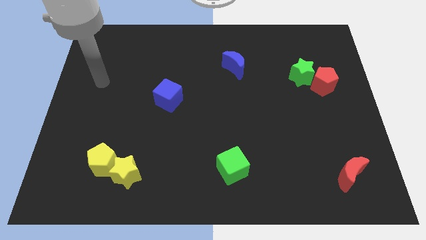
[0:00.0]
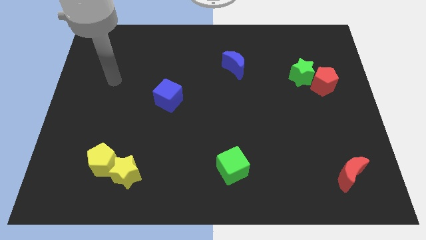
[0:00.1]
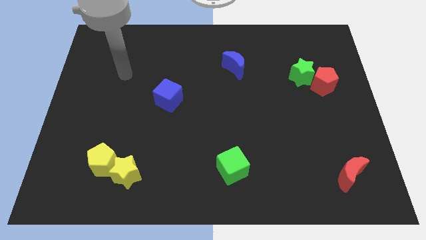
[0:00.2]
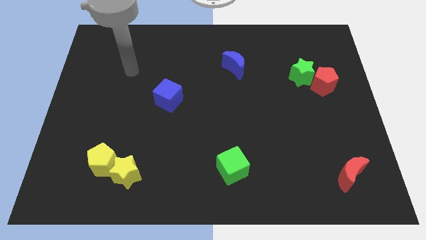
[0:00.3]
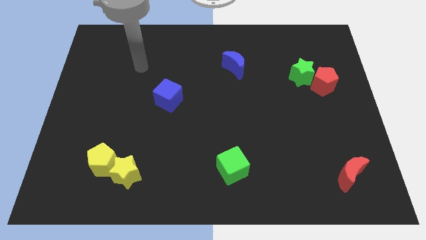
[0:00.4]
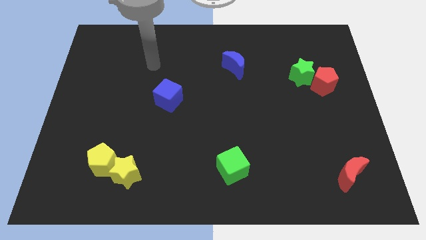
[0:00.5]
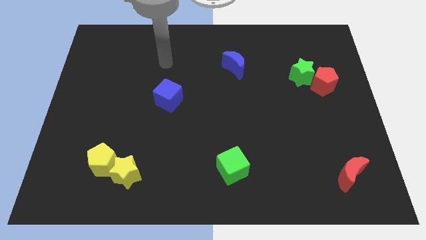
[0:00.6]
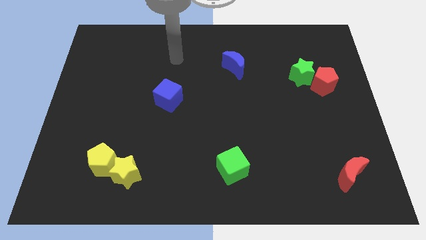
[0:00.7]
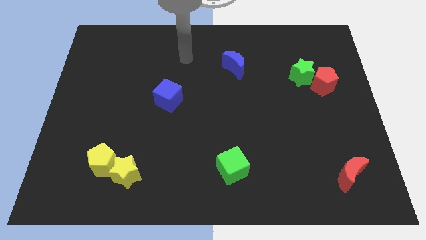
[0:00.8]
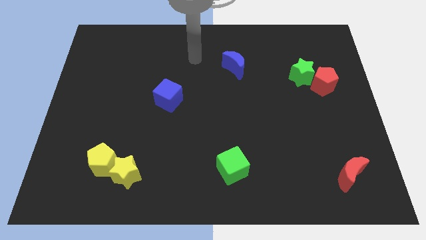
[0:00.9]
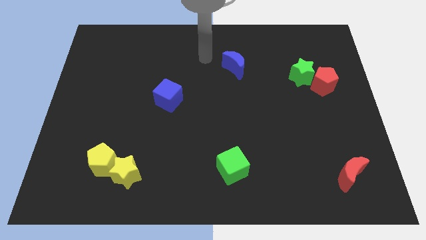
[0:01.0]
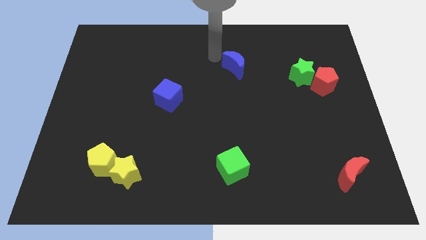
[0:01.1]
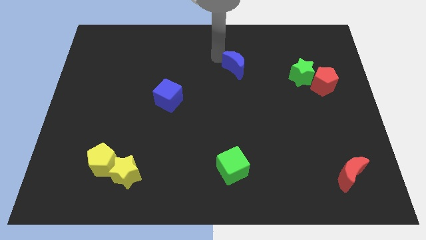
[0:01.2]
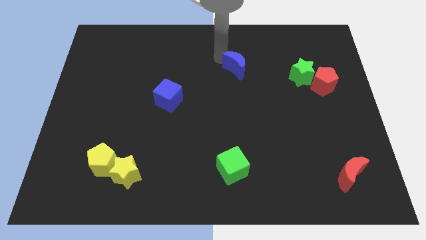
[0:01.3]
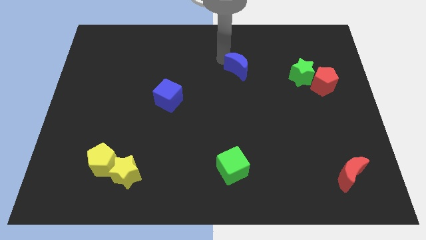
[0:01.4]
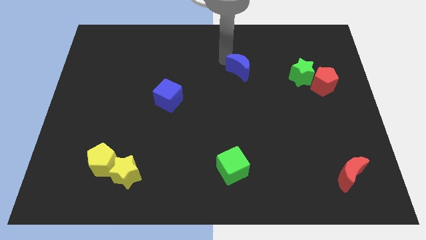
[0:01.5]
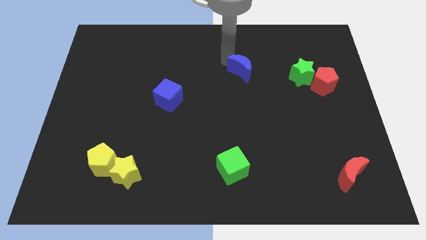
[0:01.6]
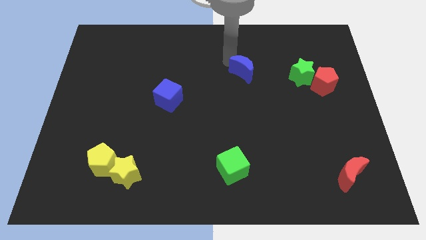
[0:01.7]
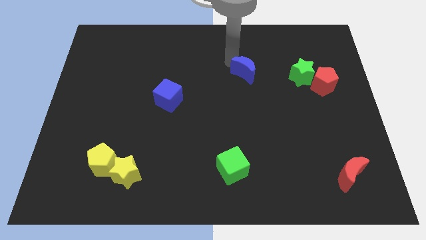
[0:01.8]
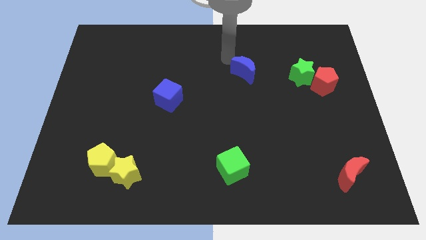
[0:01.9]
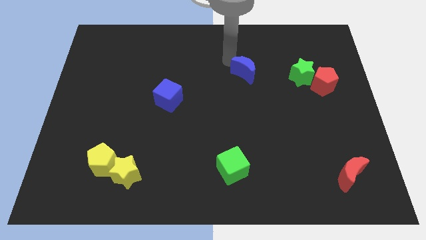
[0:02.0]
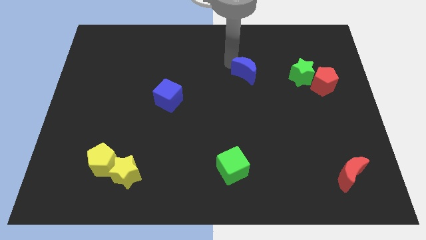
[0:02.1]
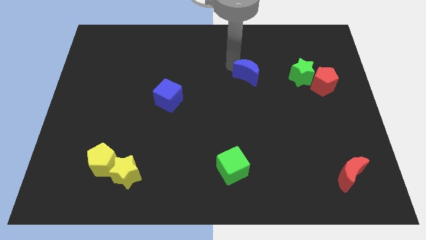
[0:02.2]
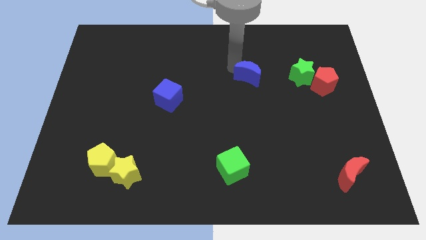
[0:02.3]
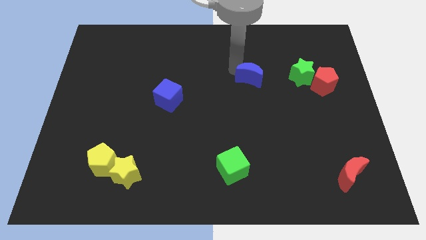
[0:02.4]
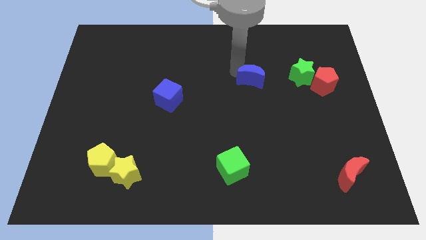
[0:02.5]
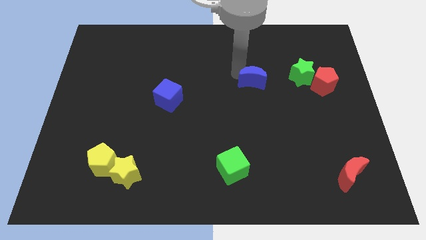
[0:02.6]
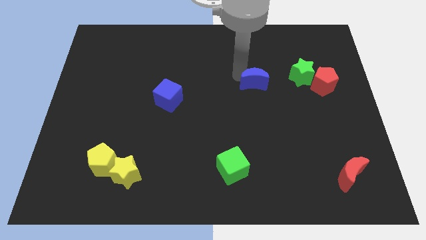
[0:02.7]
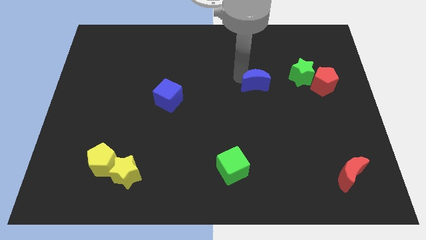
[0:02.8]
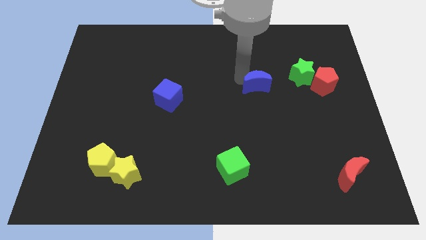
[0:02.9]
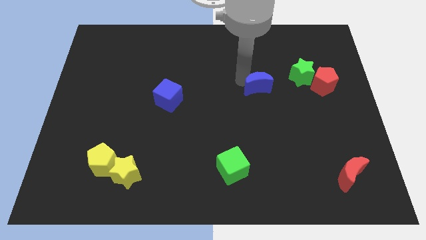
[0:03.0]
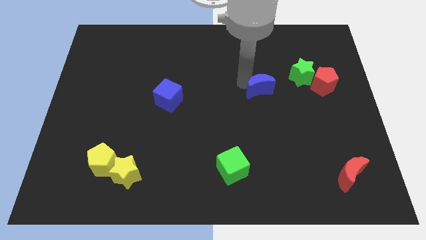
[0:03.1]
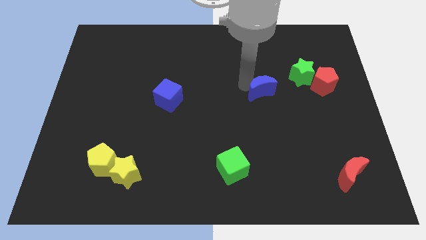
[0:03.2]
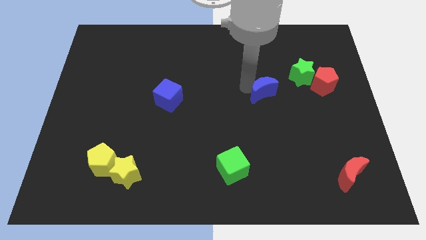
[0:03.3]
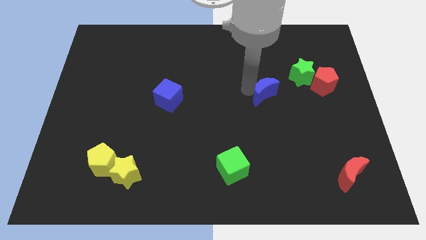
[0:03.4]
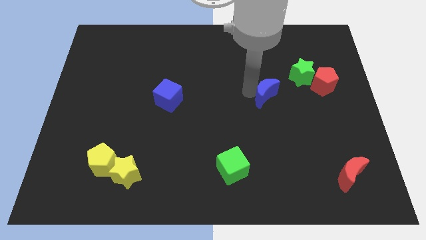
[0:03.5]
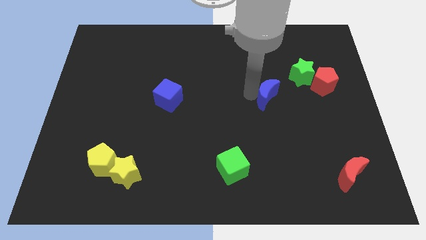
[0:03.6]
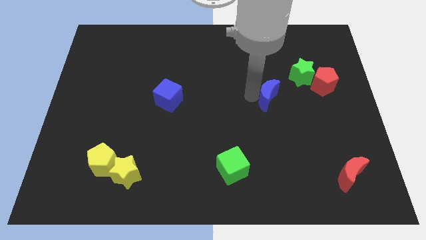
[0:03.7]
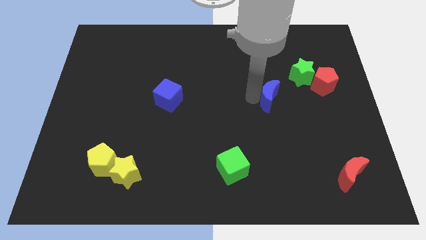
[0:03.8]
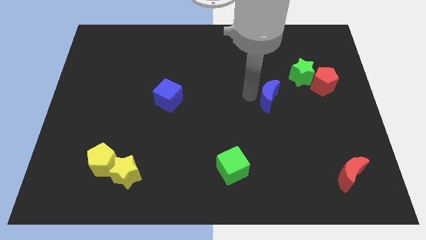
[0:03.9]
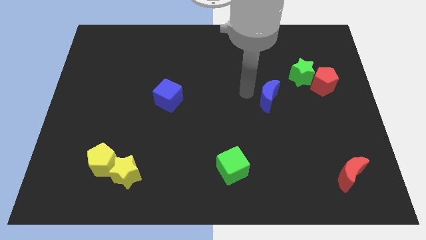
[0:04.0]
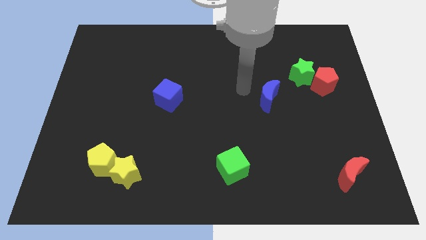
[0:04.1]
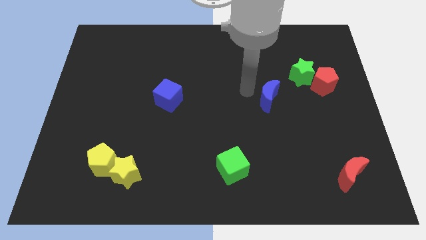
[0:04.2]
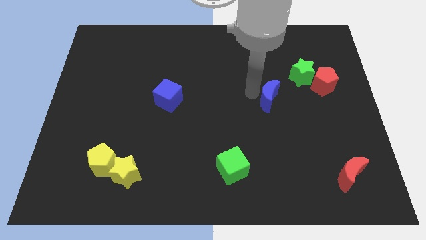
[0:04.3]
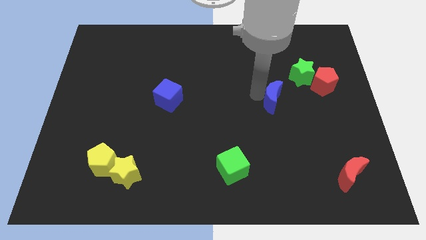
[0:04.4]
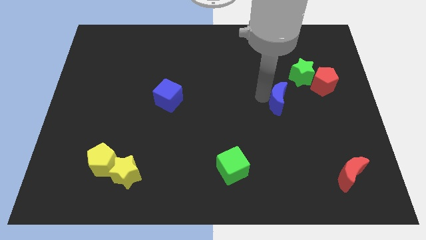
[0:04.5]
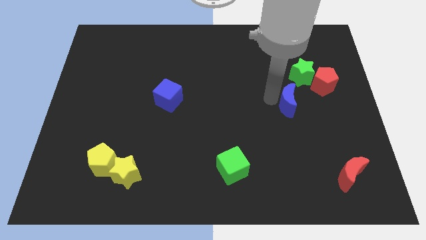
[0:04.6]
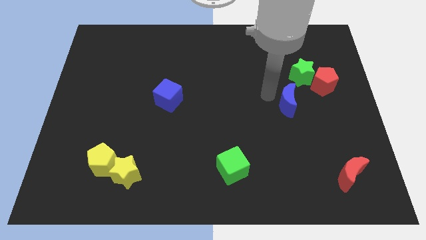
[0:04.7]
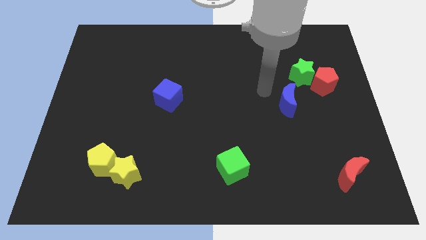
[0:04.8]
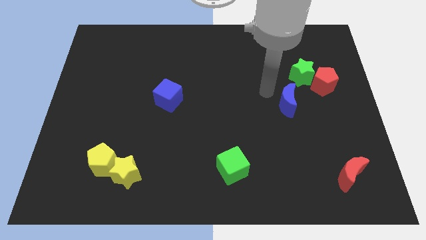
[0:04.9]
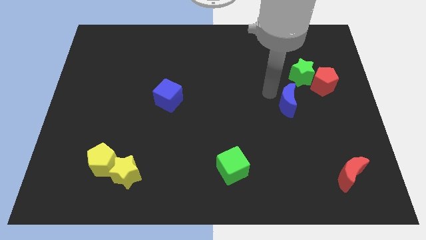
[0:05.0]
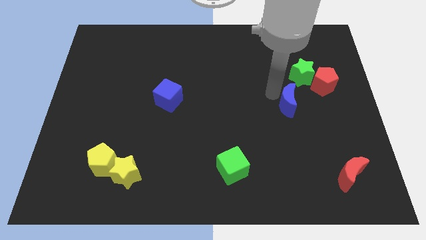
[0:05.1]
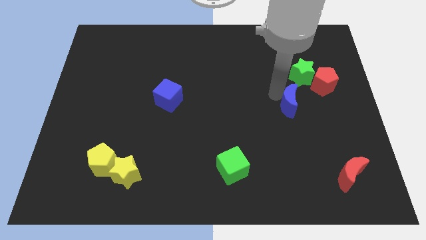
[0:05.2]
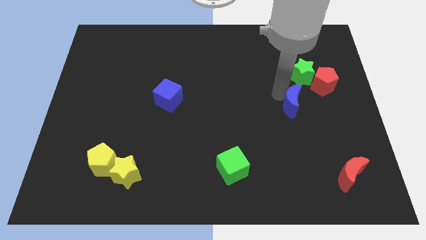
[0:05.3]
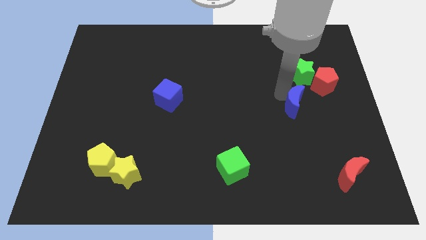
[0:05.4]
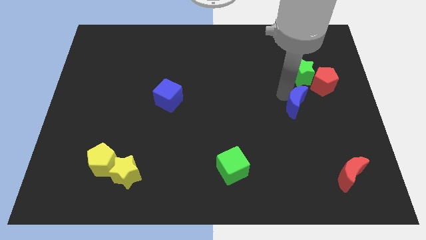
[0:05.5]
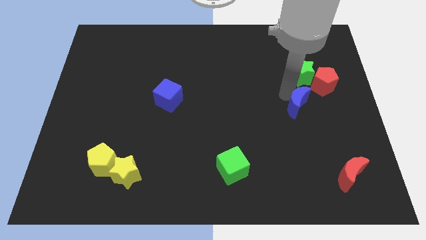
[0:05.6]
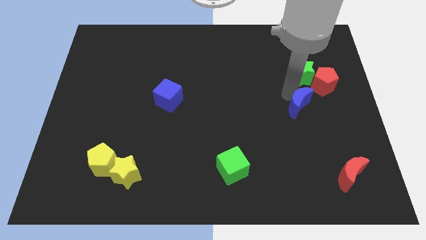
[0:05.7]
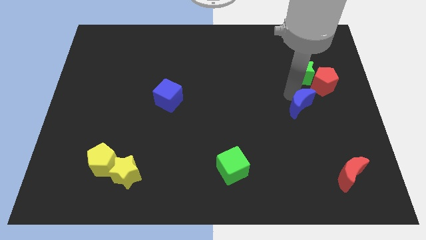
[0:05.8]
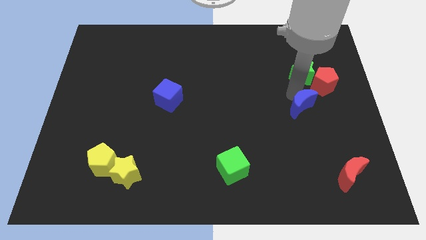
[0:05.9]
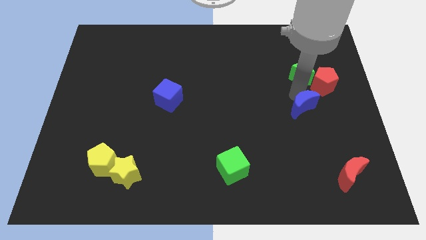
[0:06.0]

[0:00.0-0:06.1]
slide the blue moon downwards and to the right

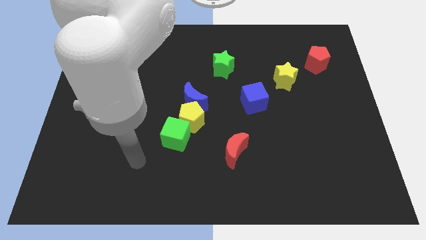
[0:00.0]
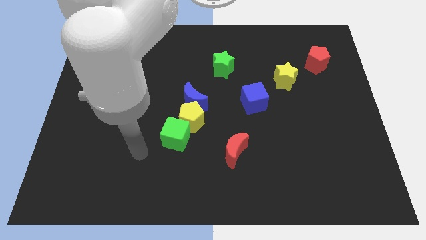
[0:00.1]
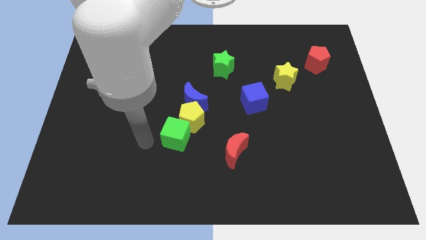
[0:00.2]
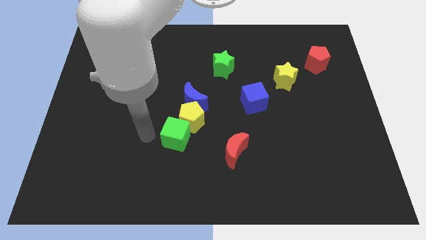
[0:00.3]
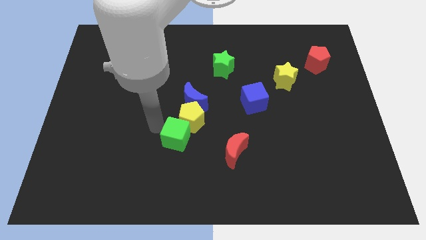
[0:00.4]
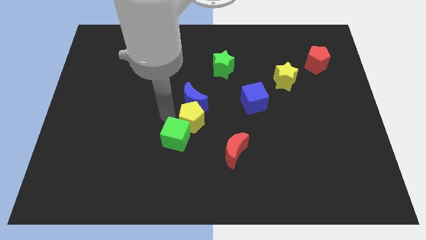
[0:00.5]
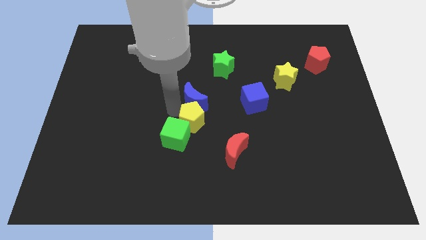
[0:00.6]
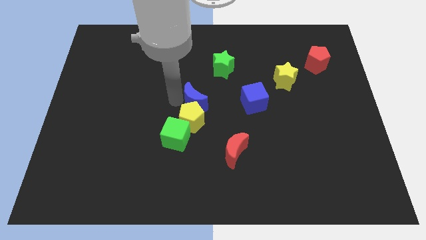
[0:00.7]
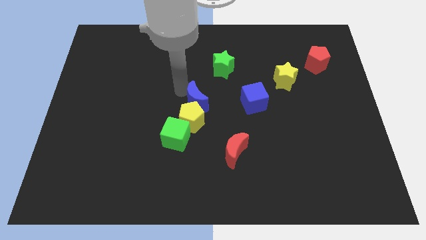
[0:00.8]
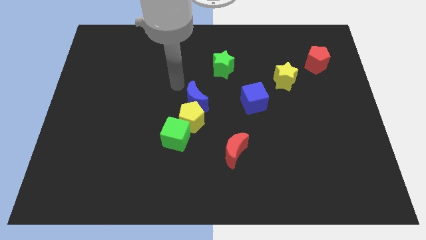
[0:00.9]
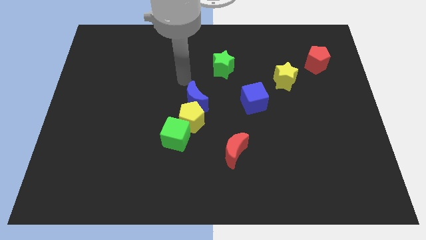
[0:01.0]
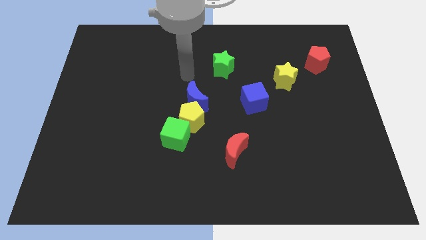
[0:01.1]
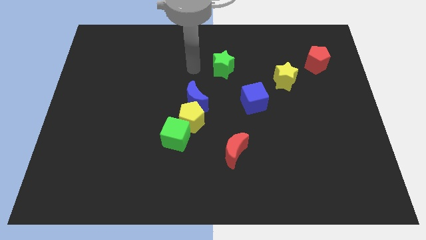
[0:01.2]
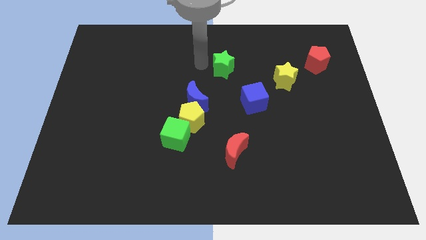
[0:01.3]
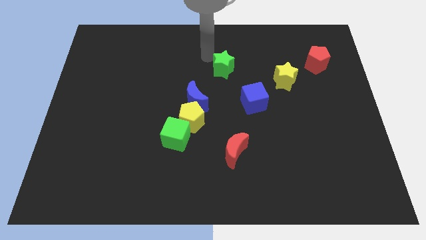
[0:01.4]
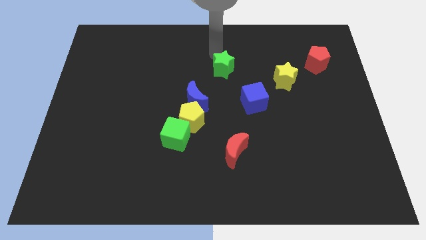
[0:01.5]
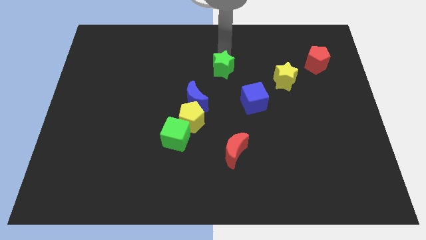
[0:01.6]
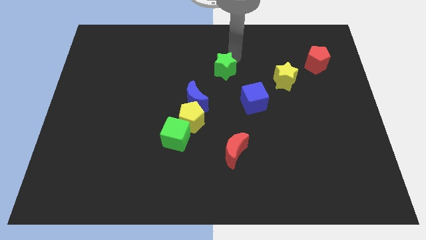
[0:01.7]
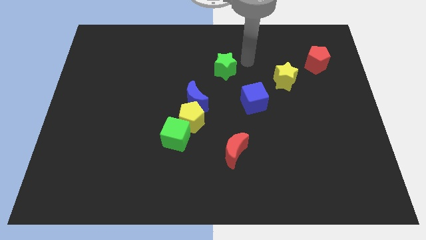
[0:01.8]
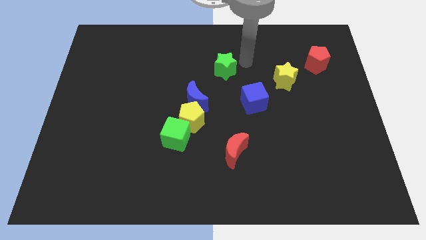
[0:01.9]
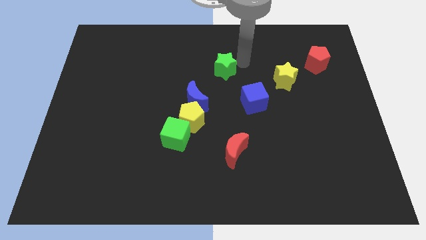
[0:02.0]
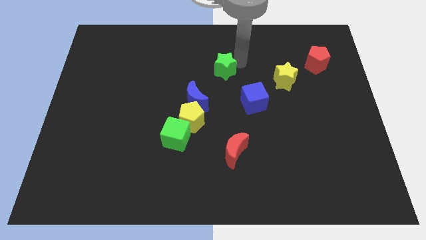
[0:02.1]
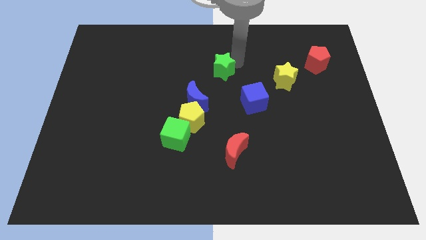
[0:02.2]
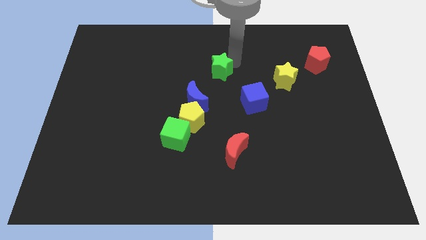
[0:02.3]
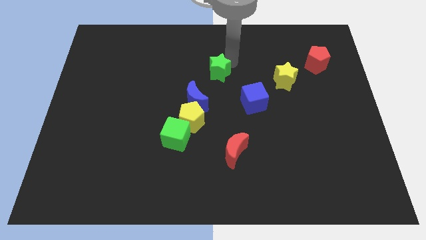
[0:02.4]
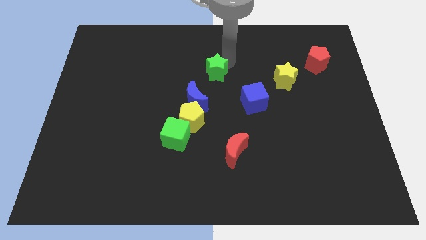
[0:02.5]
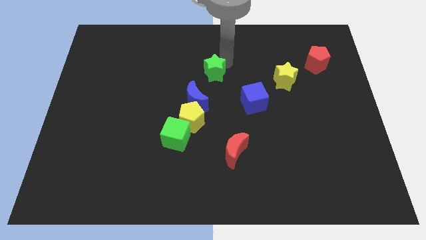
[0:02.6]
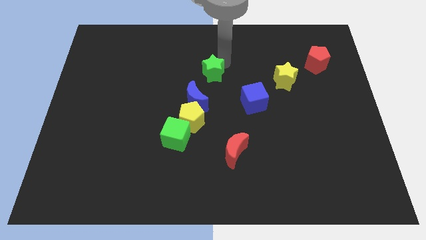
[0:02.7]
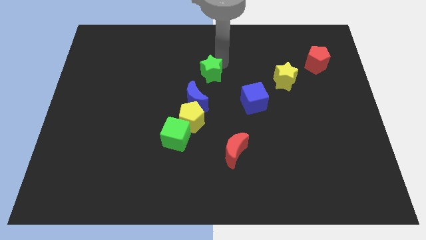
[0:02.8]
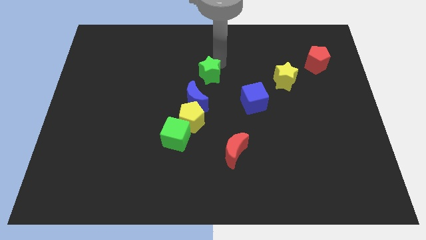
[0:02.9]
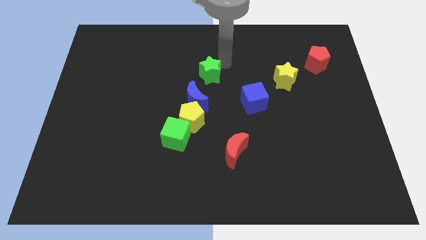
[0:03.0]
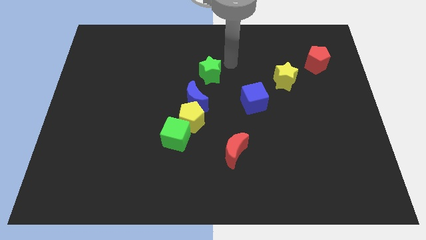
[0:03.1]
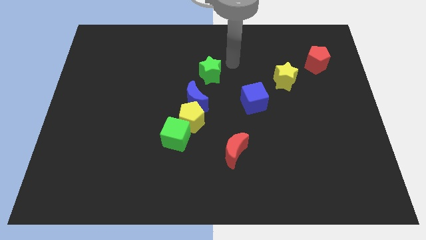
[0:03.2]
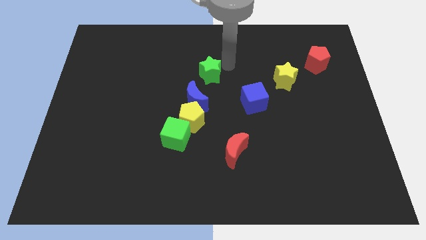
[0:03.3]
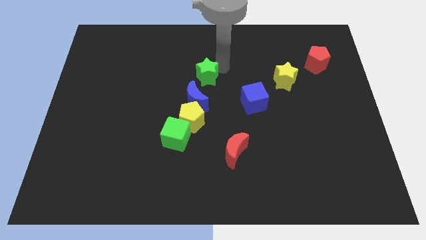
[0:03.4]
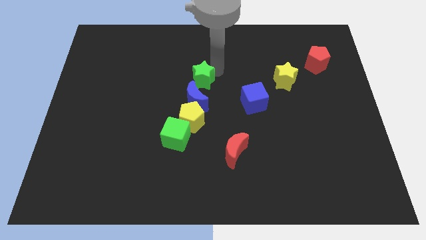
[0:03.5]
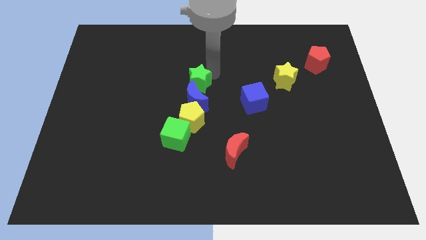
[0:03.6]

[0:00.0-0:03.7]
slide the green star diagonally down and left a little
